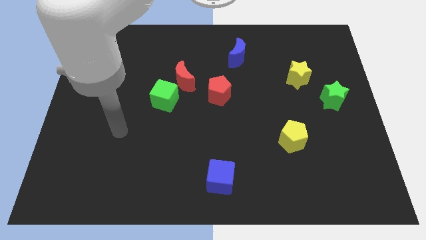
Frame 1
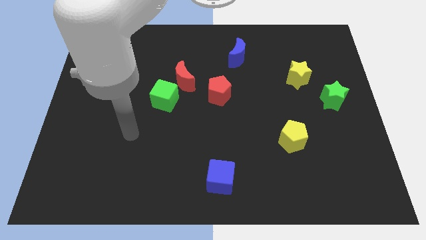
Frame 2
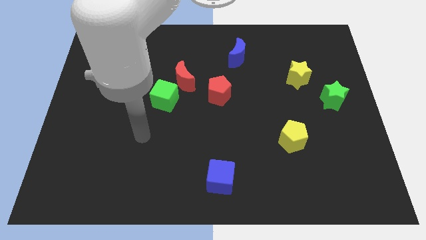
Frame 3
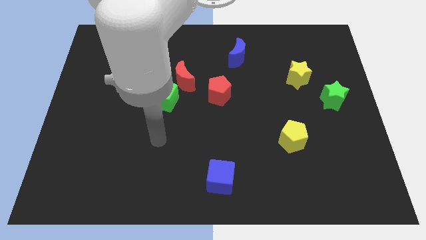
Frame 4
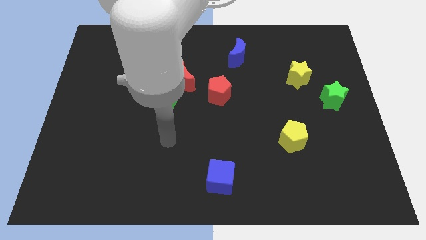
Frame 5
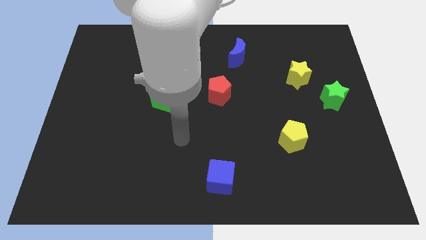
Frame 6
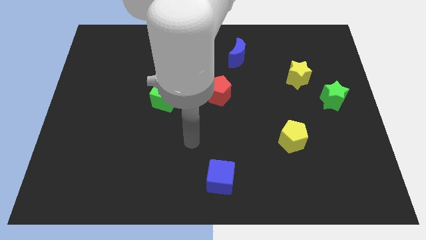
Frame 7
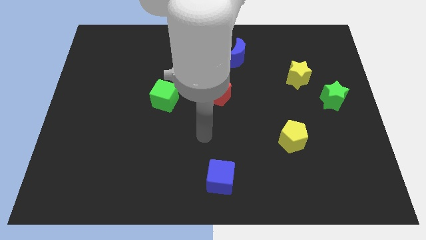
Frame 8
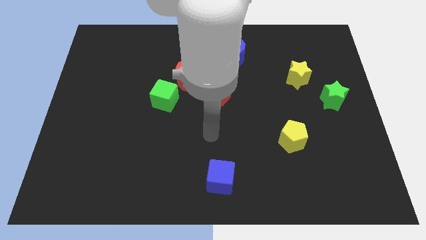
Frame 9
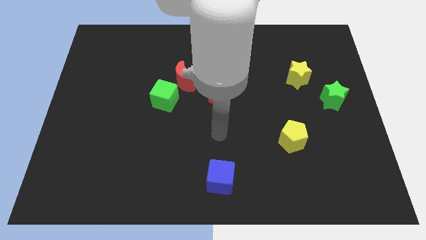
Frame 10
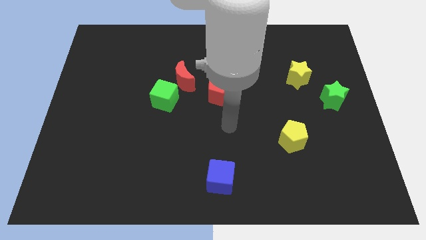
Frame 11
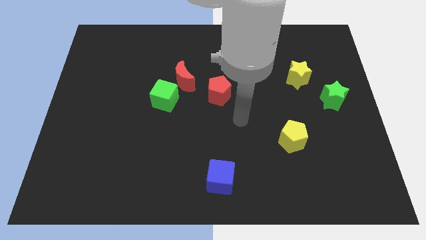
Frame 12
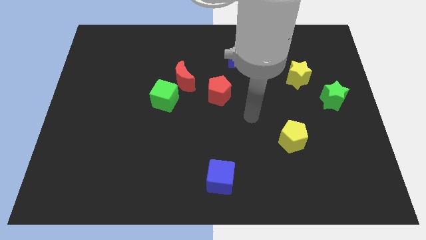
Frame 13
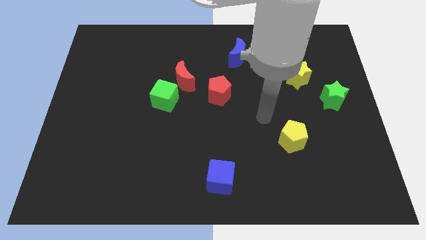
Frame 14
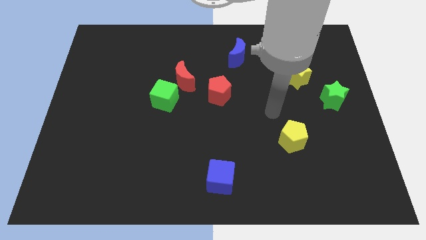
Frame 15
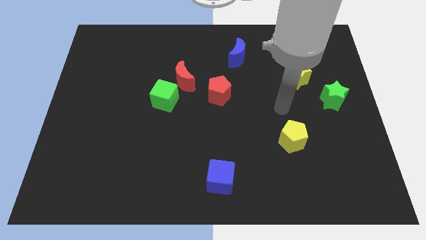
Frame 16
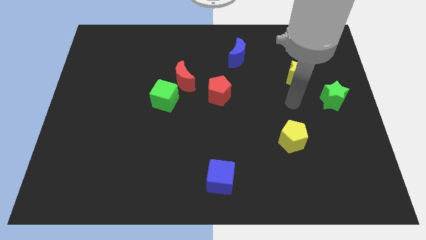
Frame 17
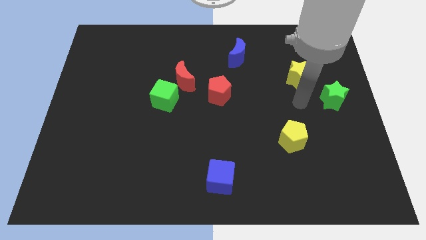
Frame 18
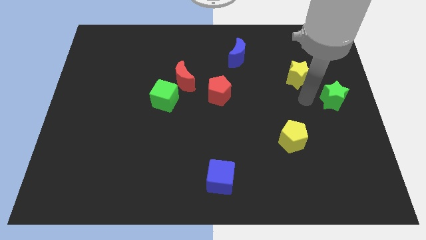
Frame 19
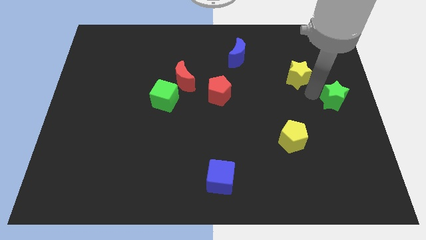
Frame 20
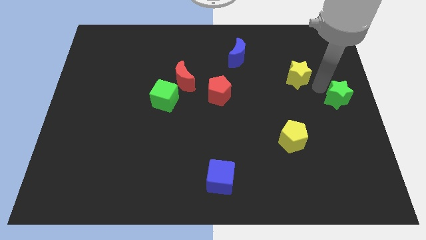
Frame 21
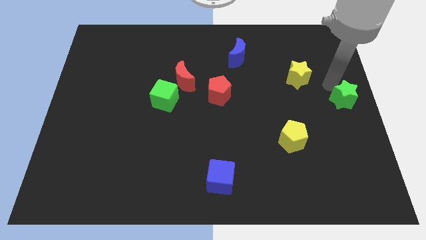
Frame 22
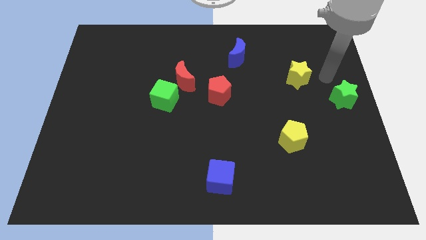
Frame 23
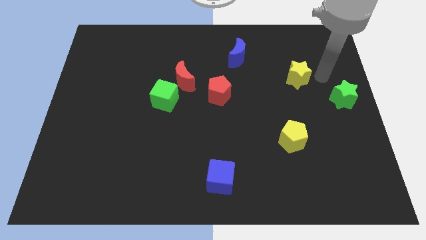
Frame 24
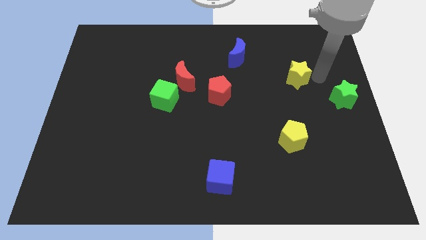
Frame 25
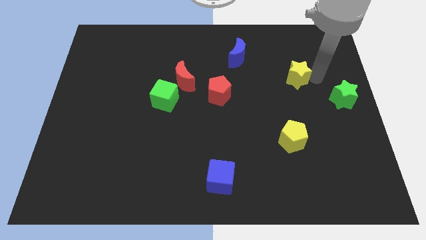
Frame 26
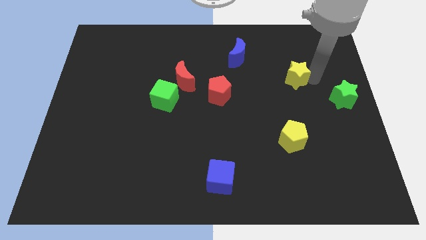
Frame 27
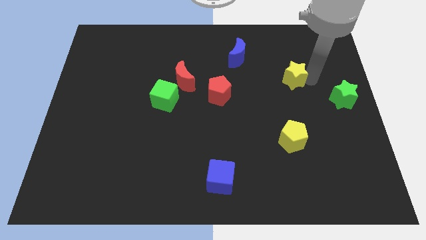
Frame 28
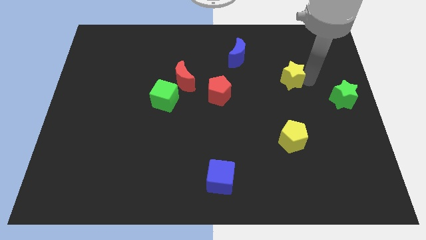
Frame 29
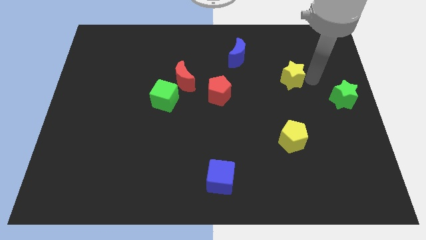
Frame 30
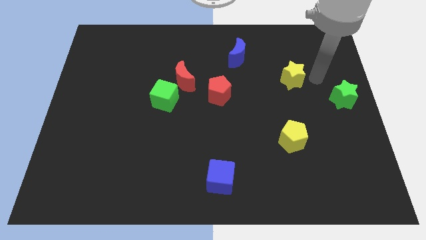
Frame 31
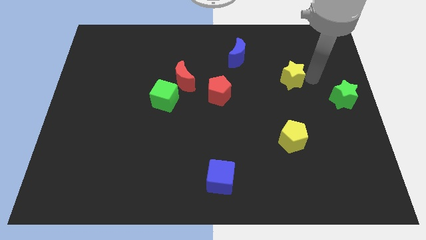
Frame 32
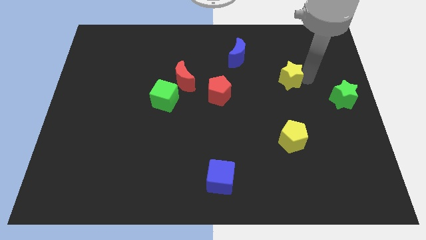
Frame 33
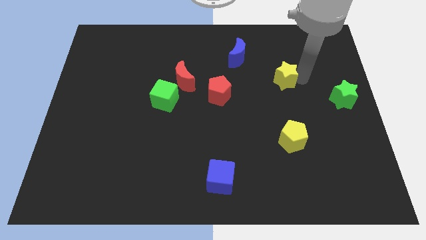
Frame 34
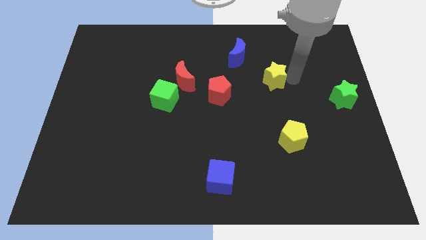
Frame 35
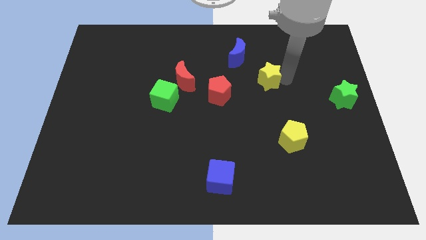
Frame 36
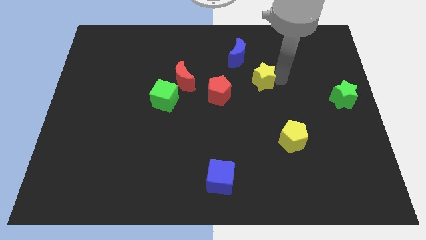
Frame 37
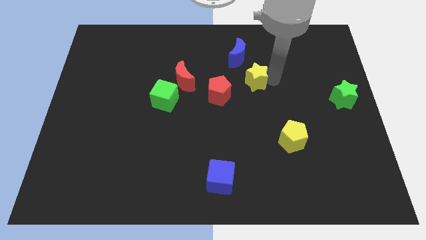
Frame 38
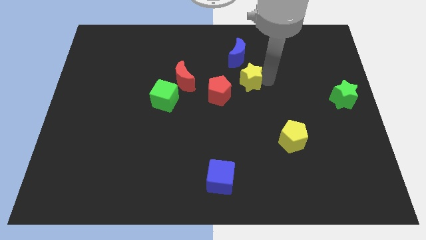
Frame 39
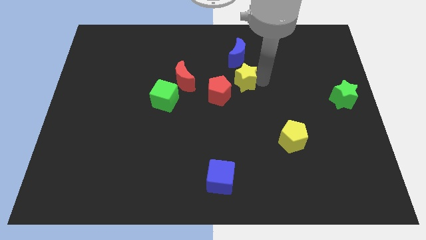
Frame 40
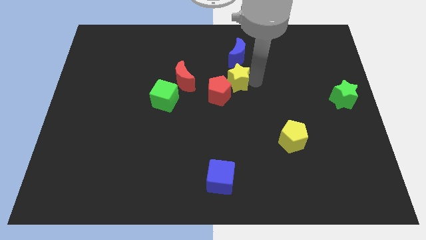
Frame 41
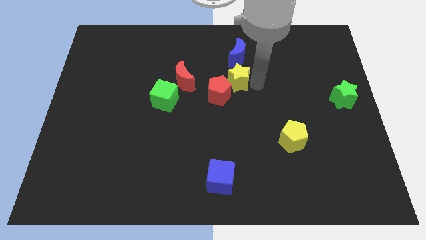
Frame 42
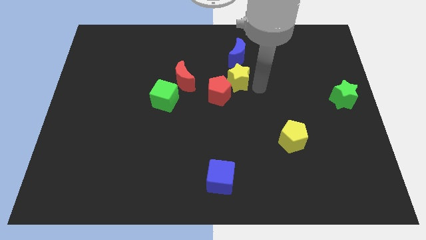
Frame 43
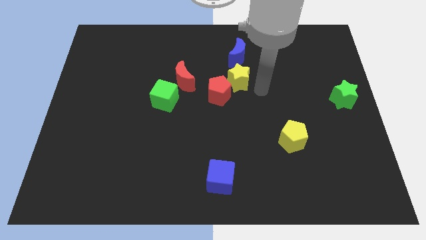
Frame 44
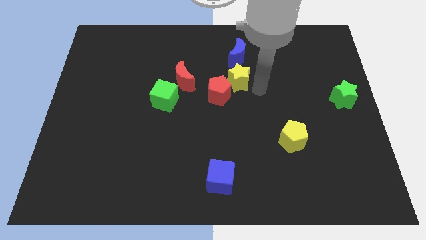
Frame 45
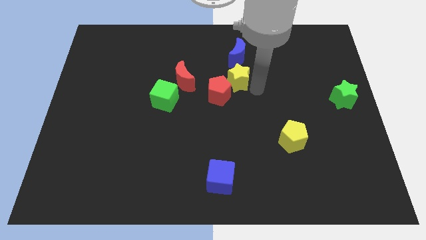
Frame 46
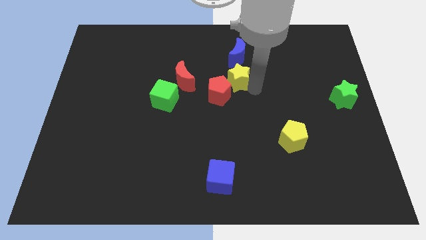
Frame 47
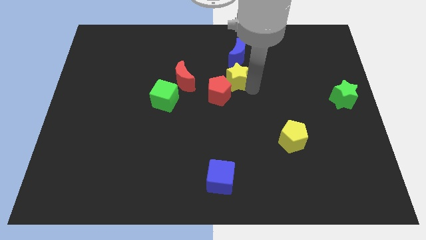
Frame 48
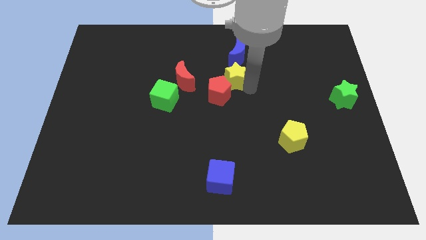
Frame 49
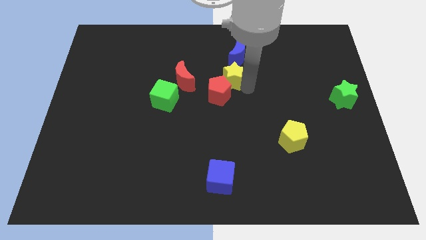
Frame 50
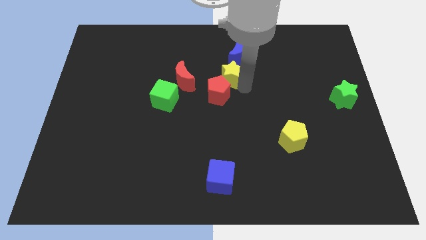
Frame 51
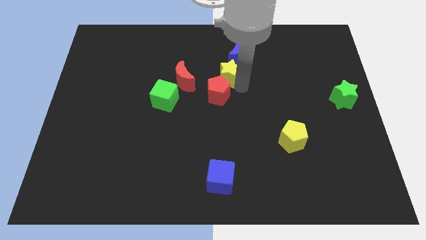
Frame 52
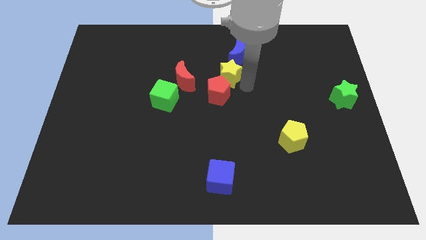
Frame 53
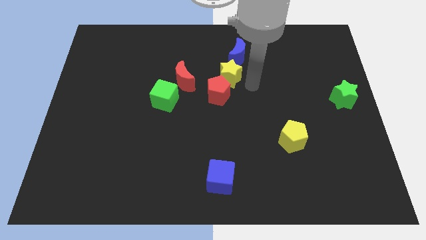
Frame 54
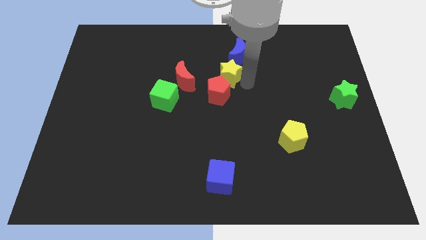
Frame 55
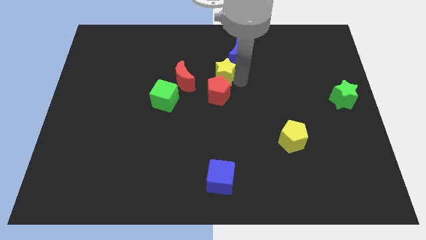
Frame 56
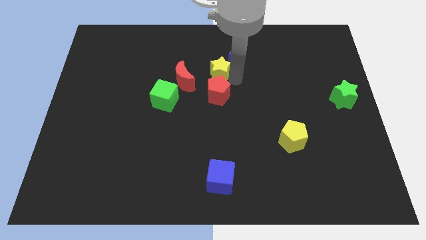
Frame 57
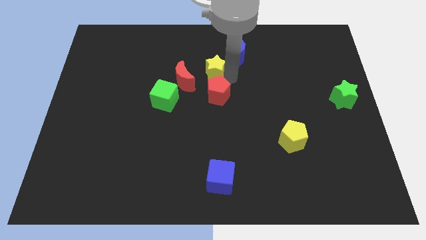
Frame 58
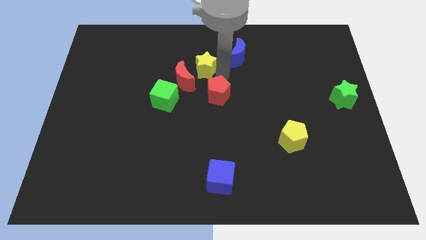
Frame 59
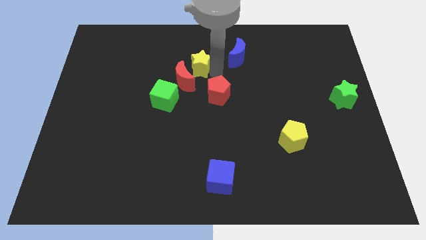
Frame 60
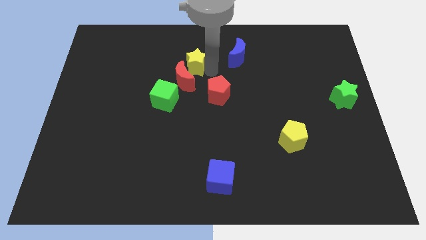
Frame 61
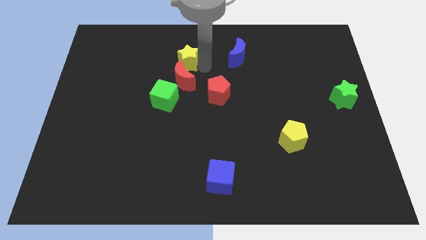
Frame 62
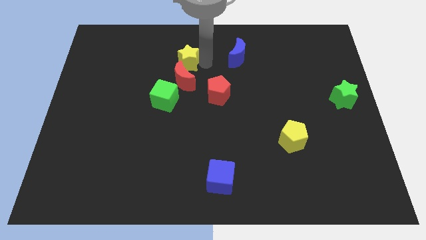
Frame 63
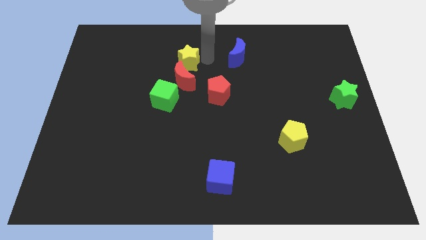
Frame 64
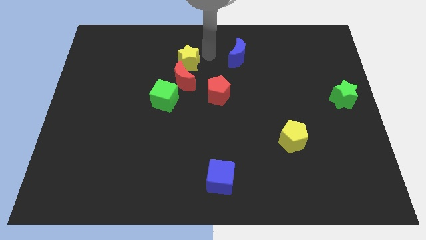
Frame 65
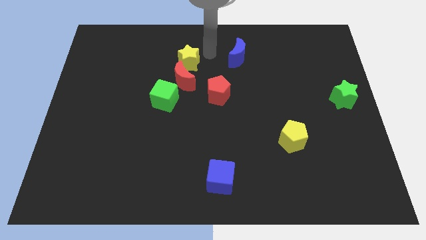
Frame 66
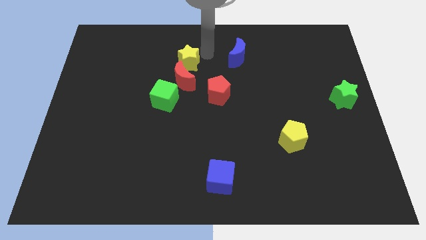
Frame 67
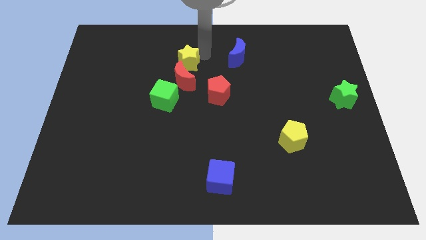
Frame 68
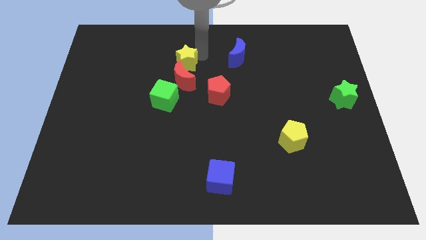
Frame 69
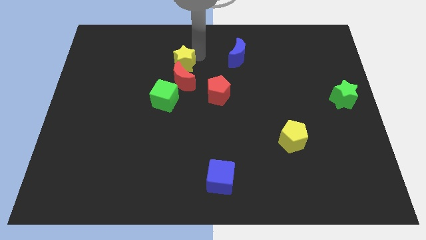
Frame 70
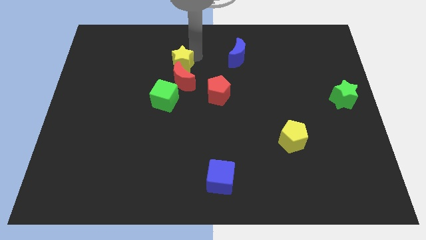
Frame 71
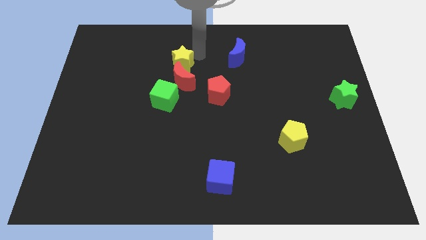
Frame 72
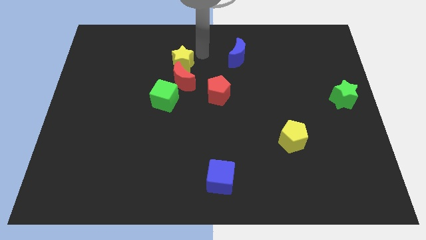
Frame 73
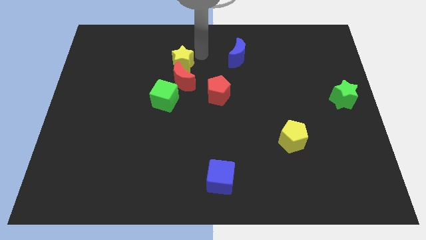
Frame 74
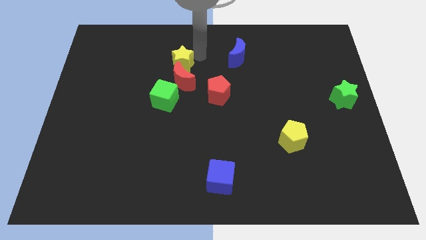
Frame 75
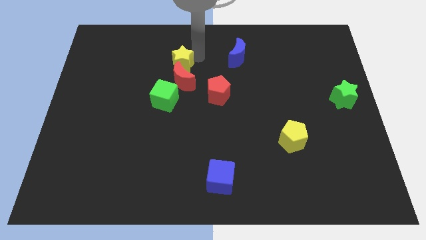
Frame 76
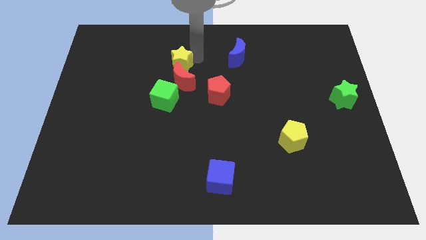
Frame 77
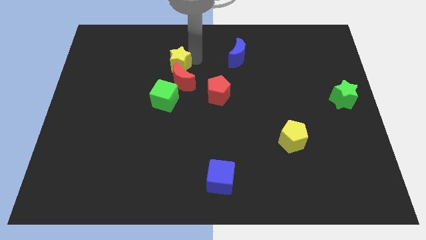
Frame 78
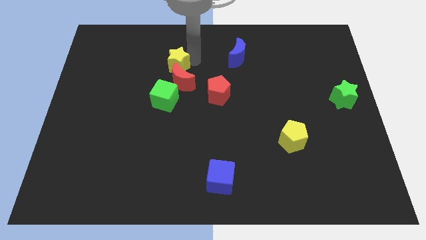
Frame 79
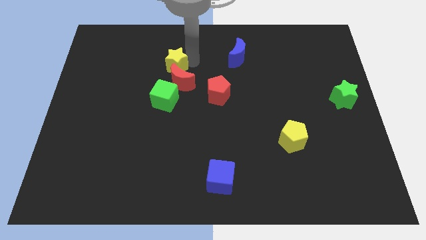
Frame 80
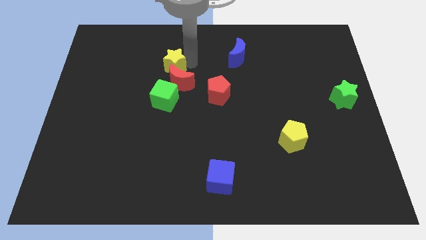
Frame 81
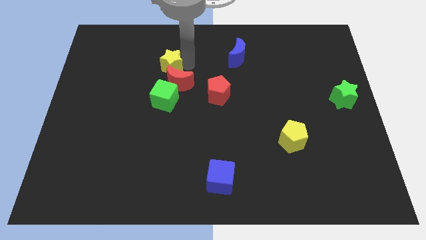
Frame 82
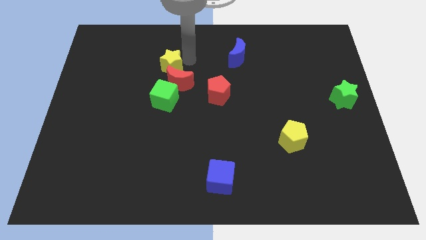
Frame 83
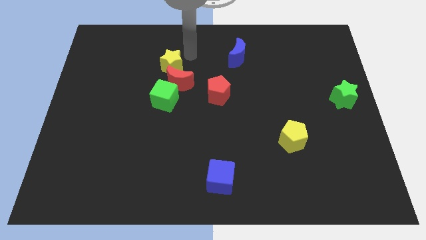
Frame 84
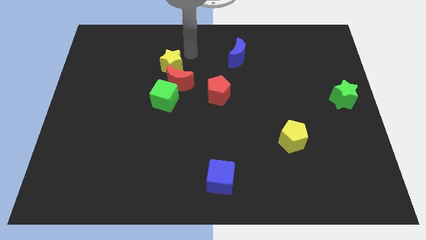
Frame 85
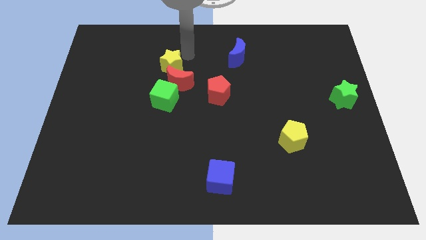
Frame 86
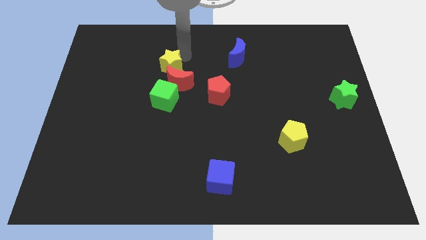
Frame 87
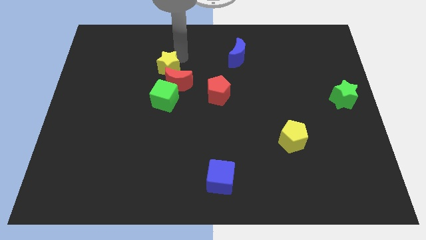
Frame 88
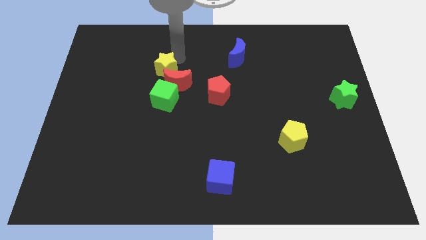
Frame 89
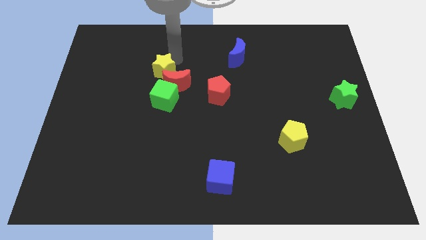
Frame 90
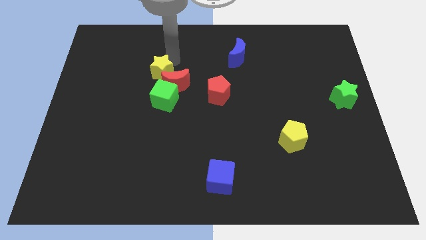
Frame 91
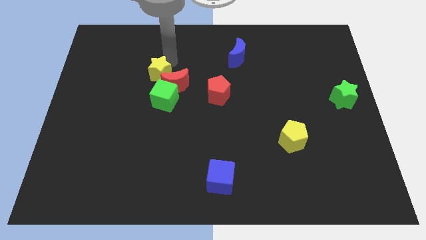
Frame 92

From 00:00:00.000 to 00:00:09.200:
put the yellow star diagonally up and to the left of the green cube
